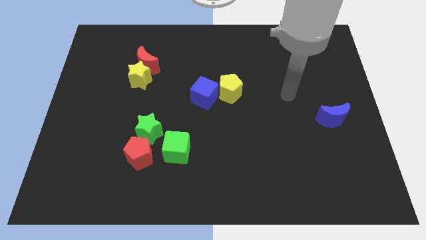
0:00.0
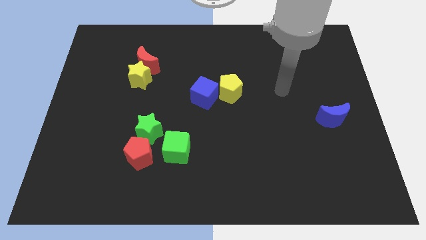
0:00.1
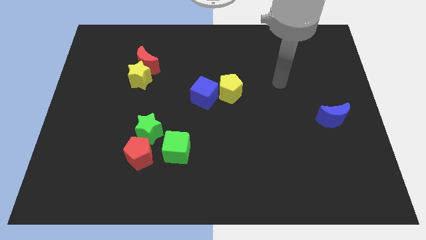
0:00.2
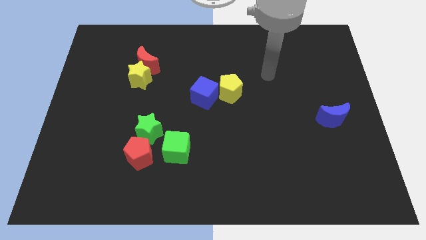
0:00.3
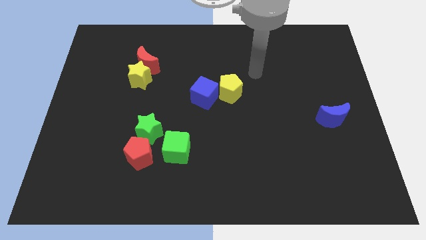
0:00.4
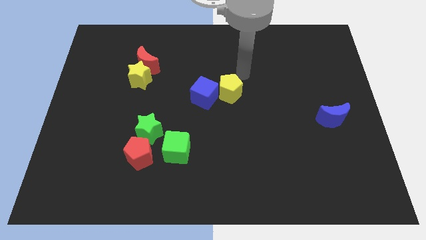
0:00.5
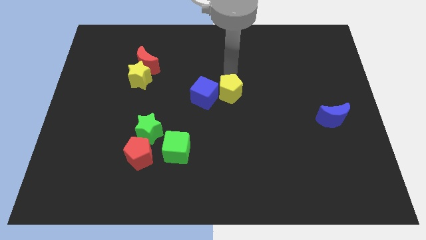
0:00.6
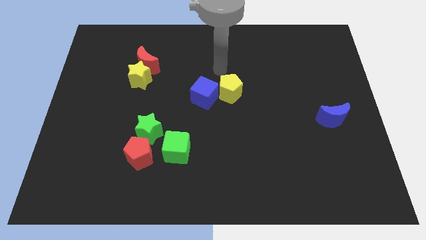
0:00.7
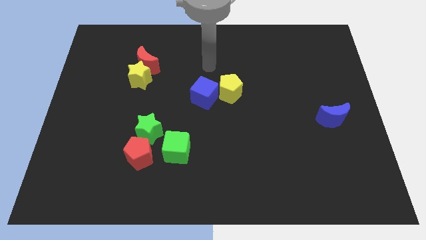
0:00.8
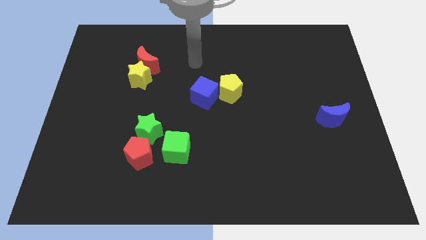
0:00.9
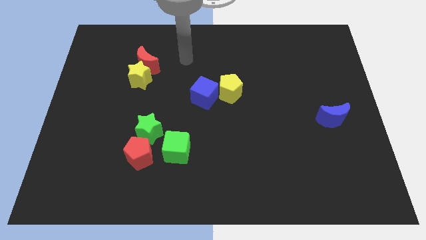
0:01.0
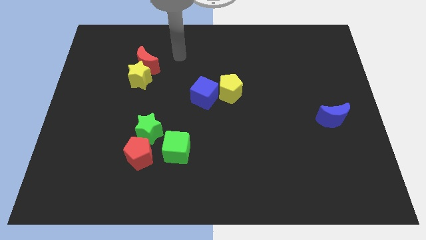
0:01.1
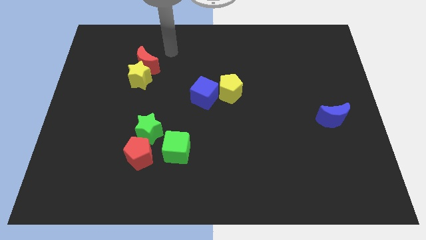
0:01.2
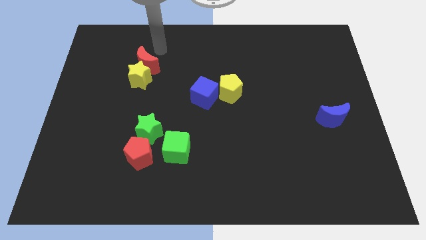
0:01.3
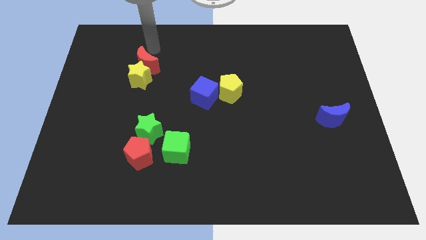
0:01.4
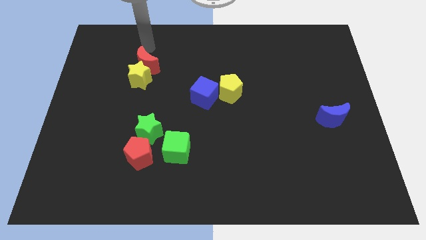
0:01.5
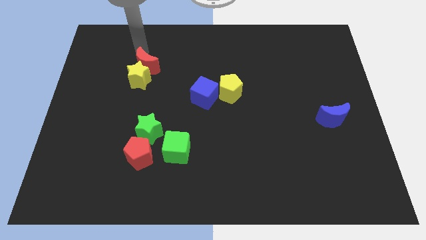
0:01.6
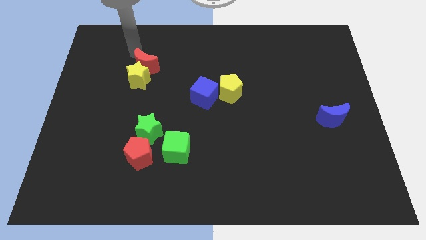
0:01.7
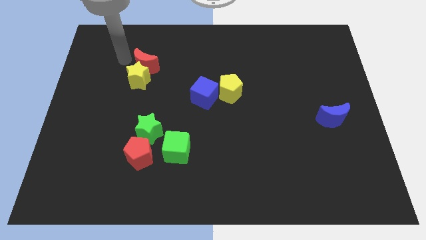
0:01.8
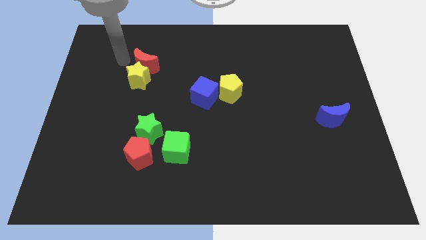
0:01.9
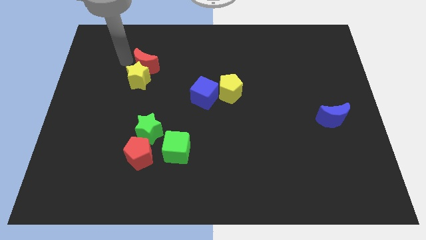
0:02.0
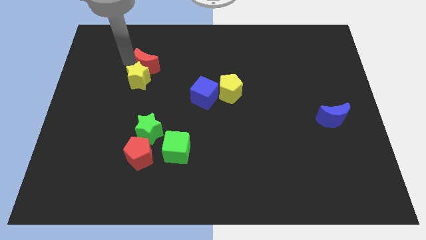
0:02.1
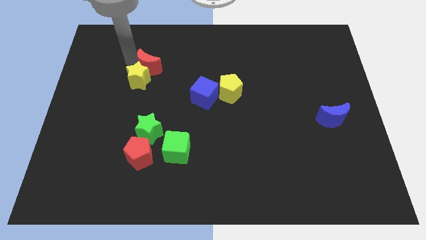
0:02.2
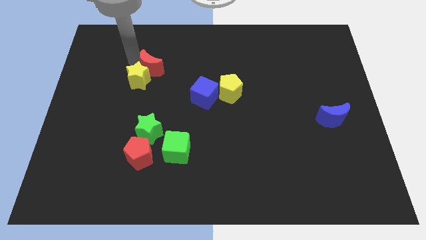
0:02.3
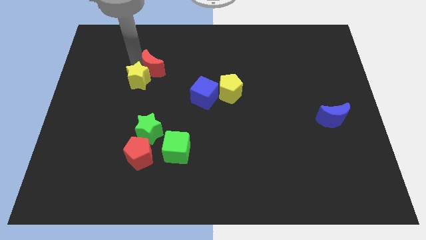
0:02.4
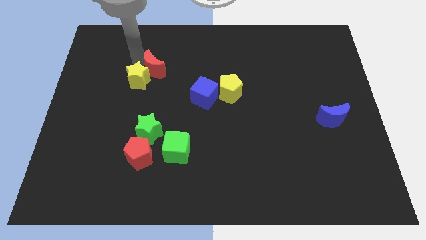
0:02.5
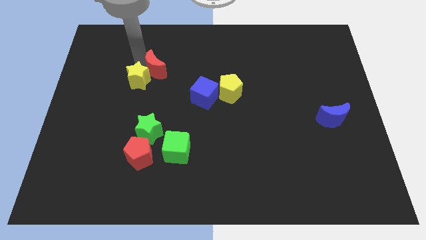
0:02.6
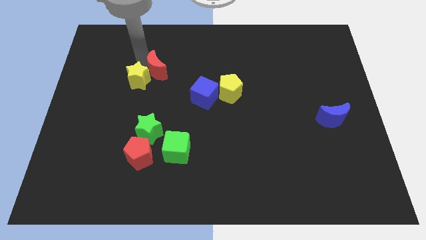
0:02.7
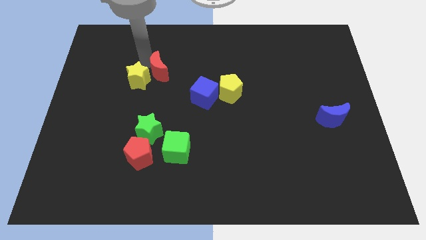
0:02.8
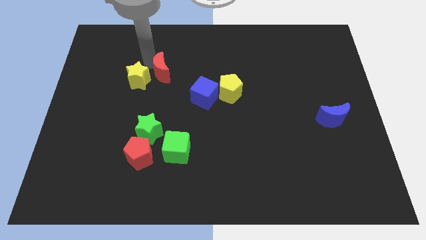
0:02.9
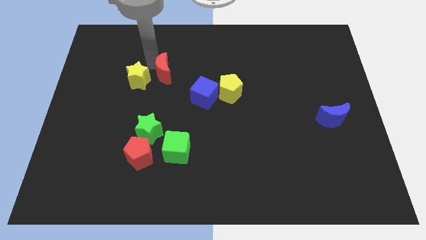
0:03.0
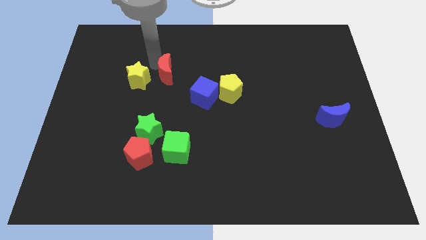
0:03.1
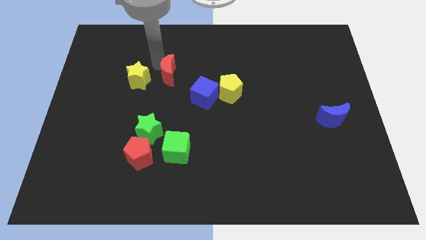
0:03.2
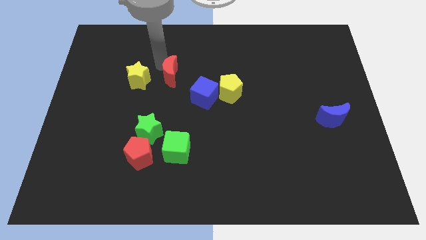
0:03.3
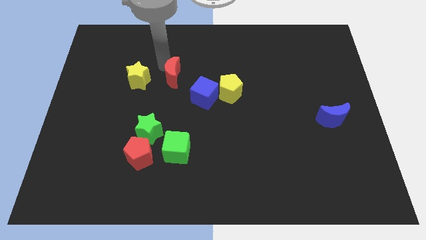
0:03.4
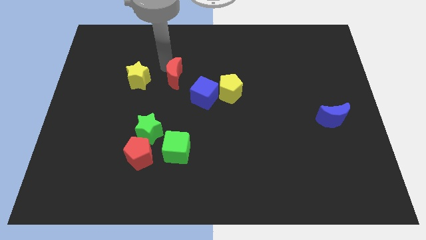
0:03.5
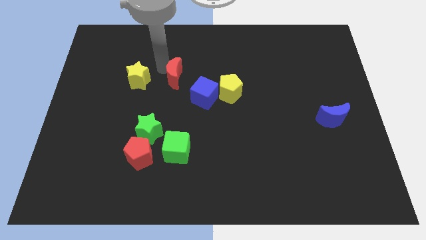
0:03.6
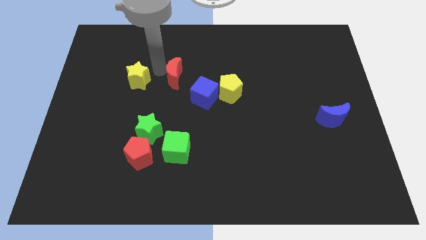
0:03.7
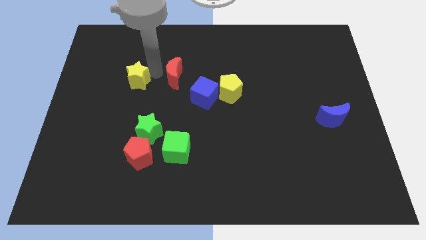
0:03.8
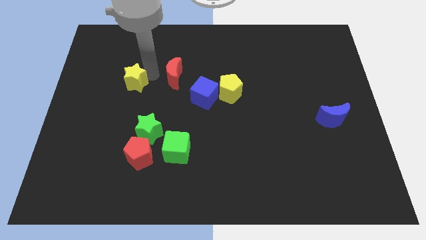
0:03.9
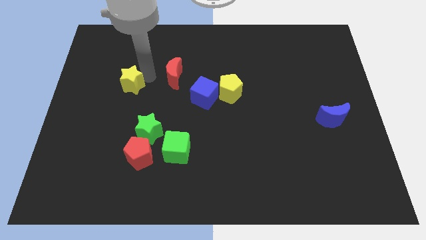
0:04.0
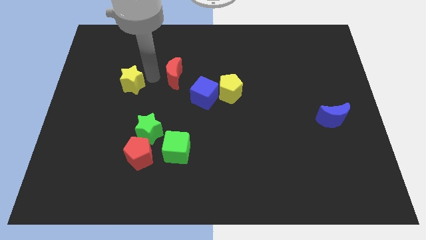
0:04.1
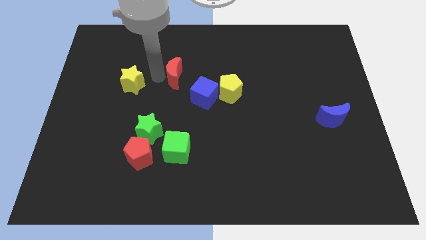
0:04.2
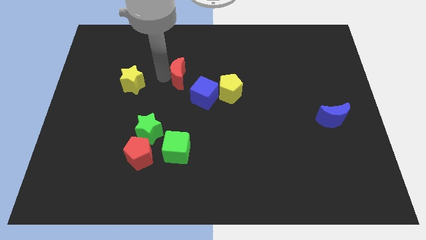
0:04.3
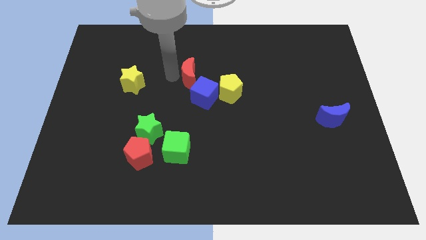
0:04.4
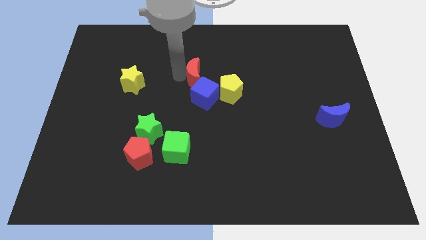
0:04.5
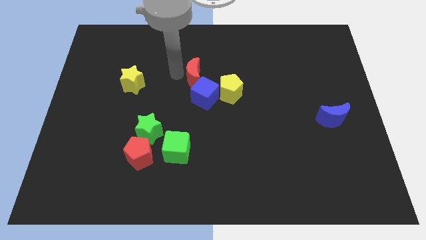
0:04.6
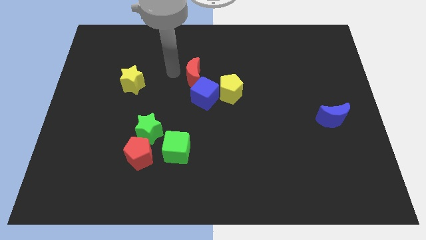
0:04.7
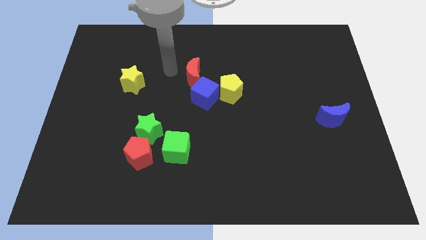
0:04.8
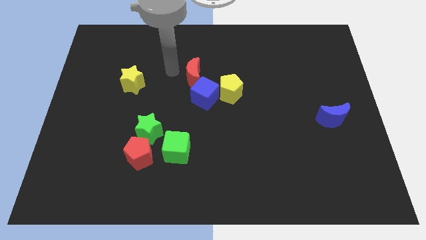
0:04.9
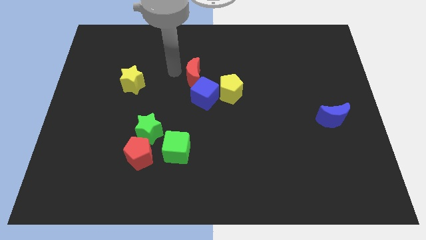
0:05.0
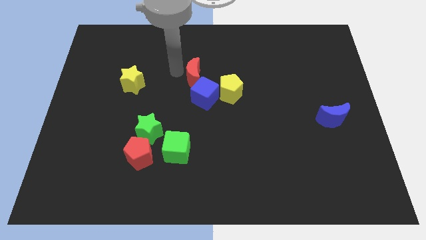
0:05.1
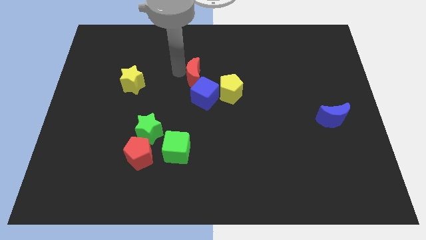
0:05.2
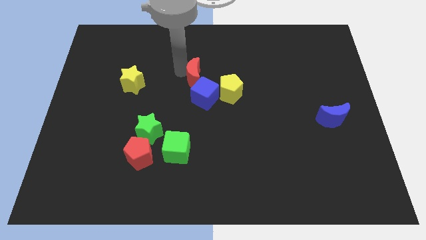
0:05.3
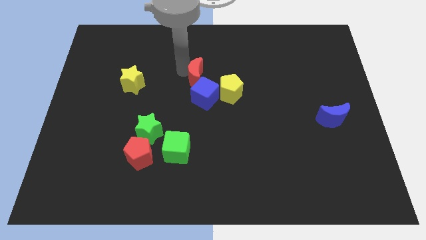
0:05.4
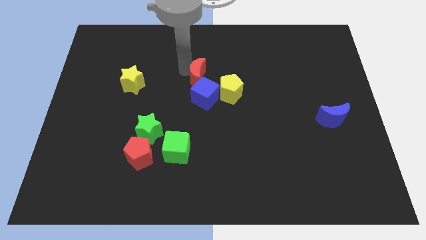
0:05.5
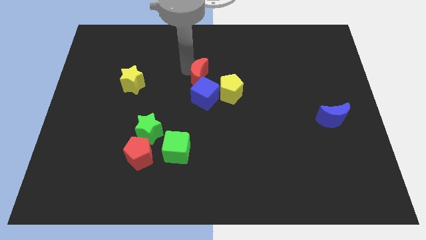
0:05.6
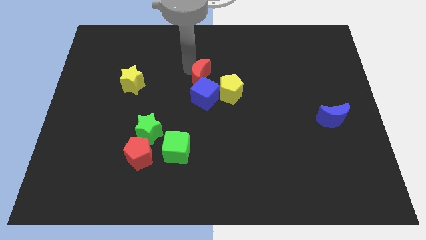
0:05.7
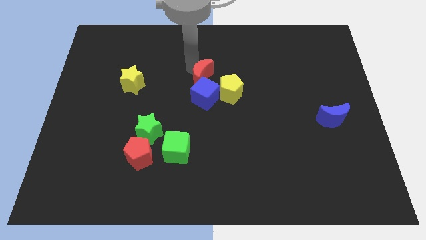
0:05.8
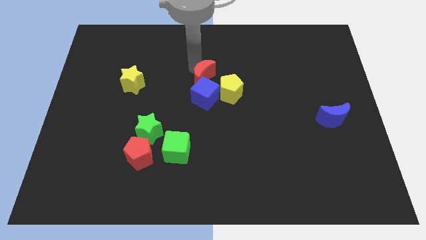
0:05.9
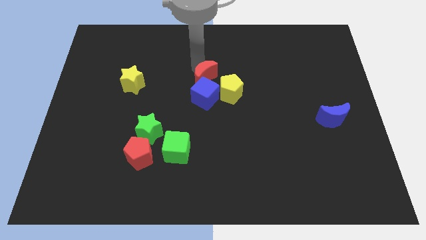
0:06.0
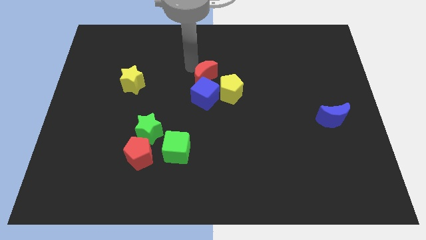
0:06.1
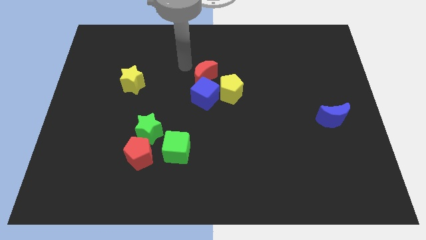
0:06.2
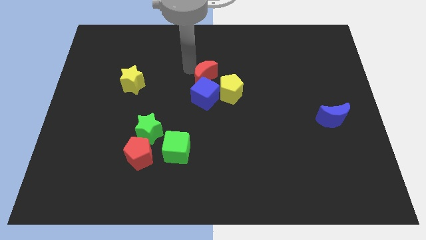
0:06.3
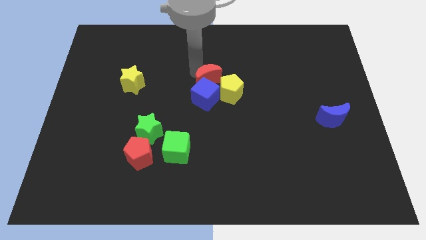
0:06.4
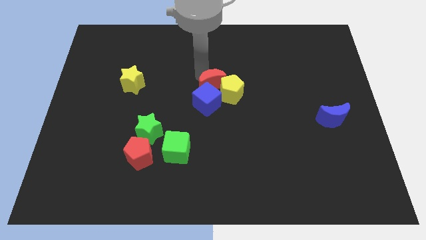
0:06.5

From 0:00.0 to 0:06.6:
move the red moon next to the yellow pentagon

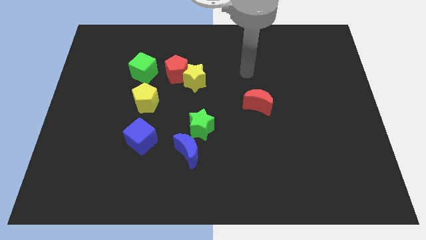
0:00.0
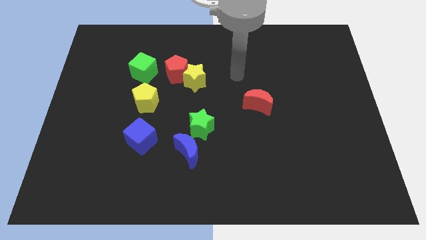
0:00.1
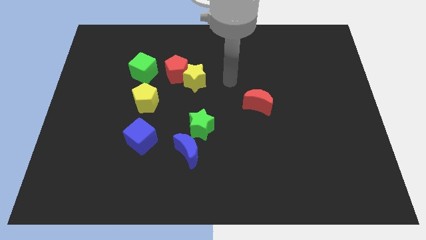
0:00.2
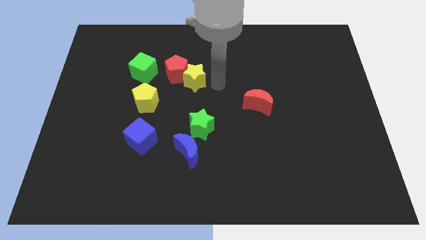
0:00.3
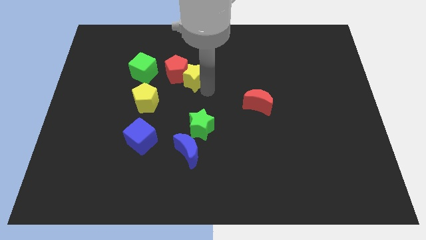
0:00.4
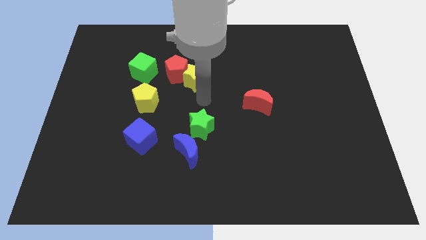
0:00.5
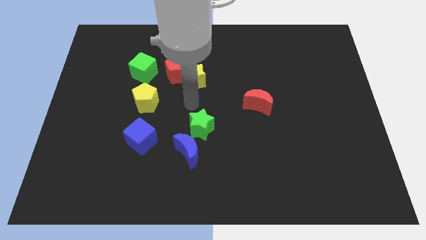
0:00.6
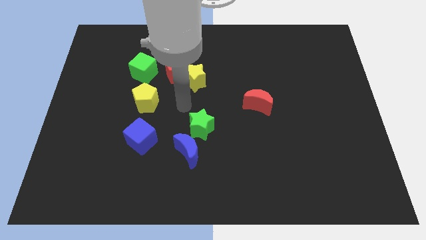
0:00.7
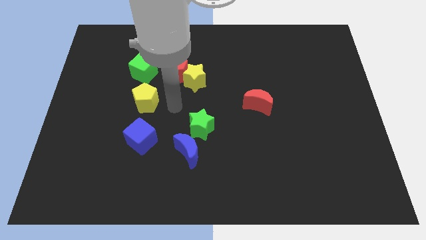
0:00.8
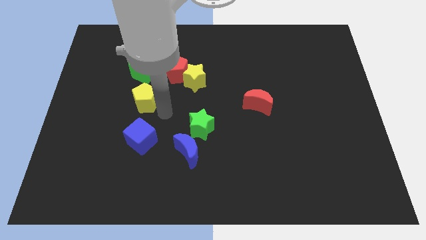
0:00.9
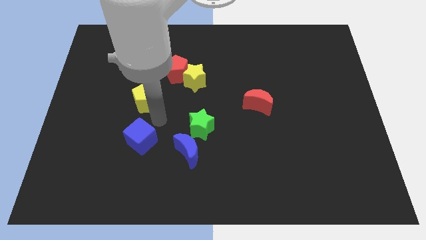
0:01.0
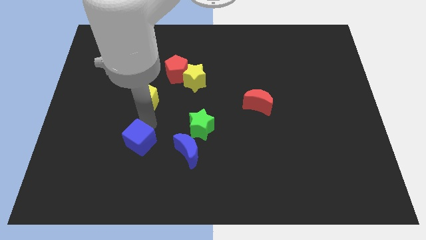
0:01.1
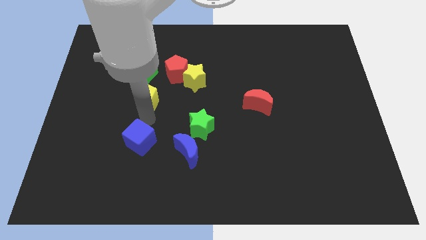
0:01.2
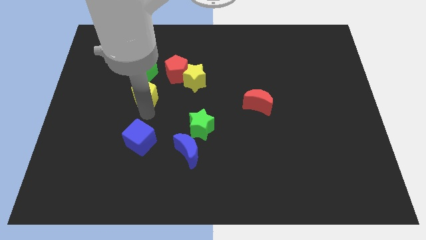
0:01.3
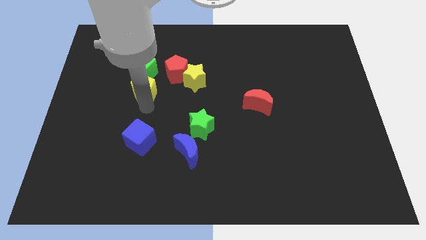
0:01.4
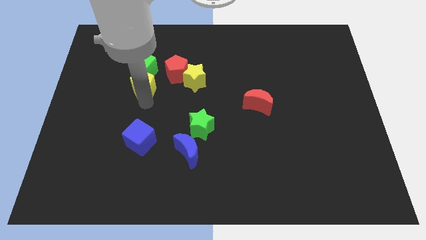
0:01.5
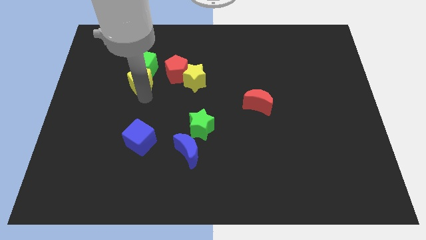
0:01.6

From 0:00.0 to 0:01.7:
put the yellow pentagon towards the green cube
